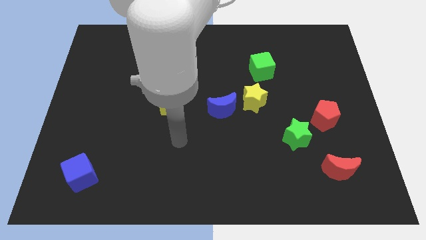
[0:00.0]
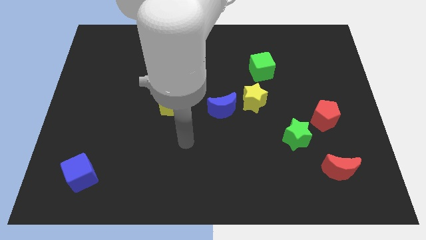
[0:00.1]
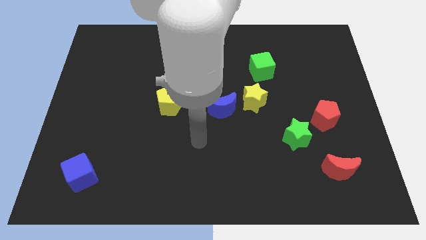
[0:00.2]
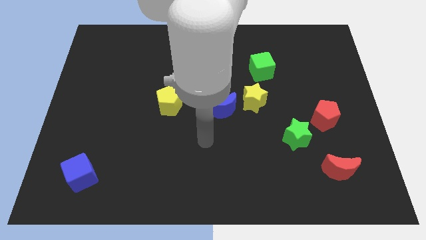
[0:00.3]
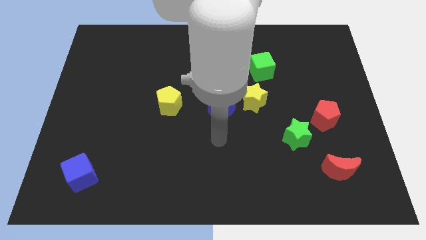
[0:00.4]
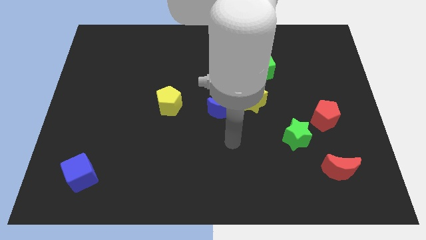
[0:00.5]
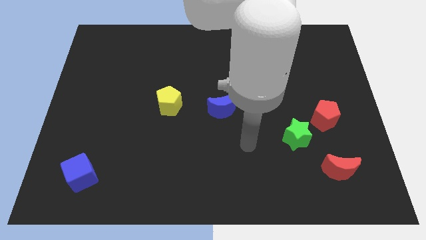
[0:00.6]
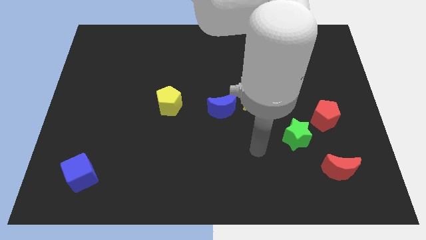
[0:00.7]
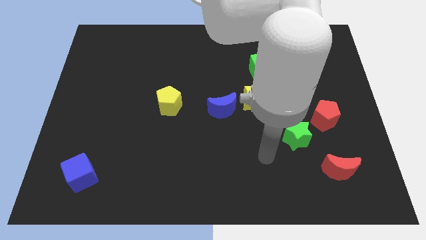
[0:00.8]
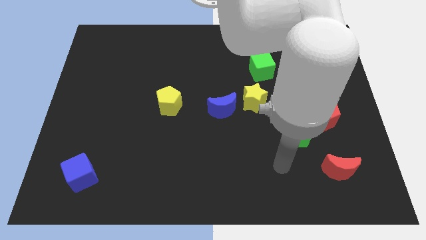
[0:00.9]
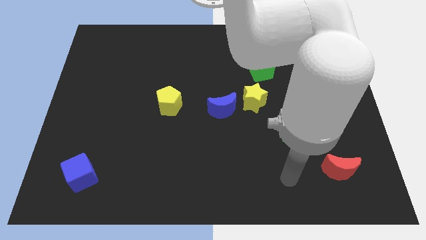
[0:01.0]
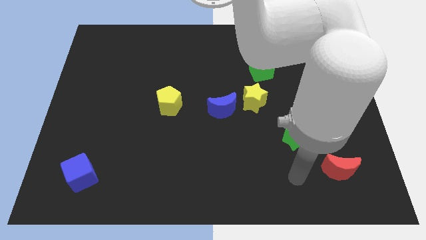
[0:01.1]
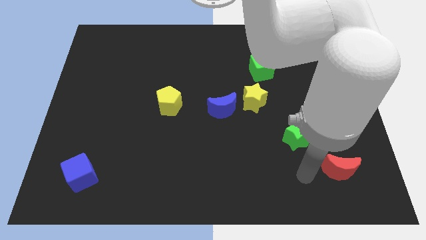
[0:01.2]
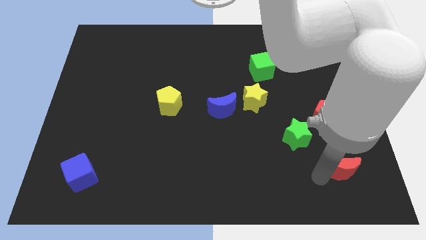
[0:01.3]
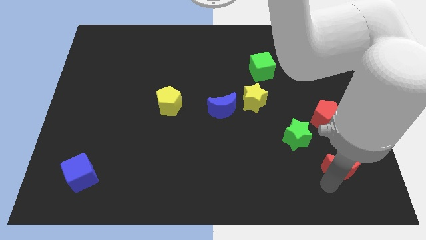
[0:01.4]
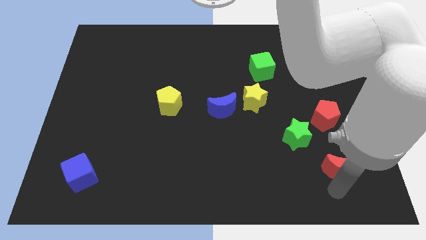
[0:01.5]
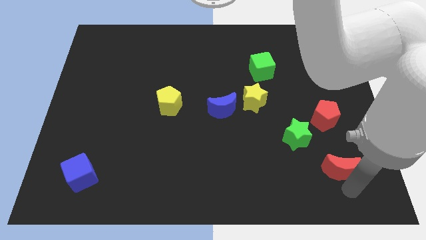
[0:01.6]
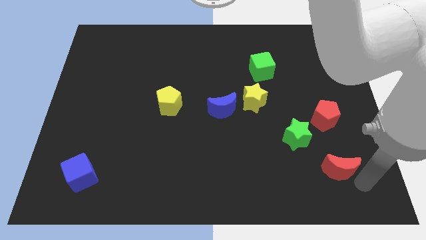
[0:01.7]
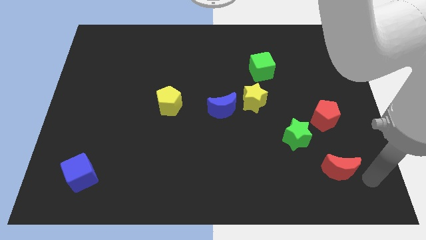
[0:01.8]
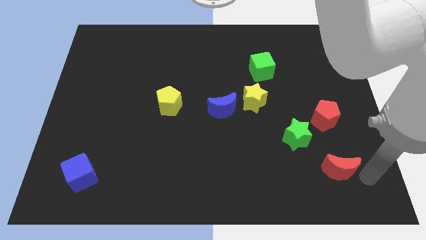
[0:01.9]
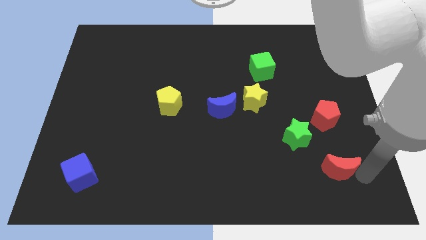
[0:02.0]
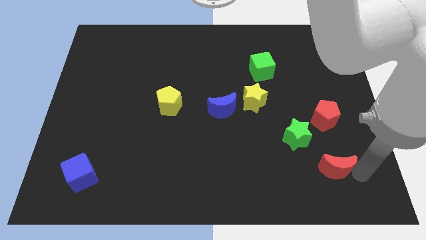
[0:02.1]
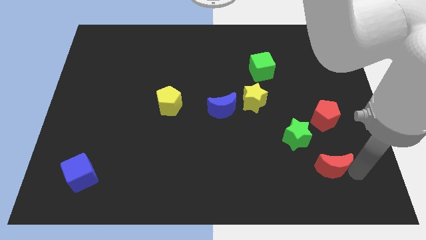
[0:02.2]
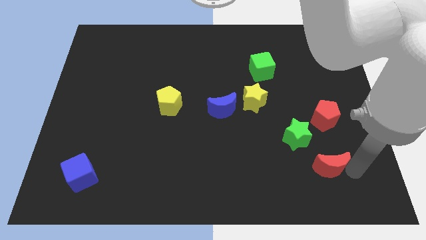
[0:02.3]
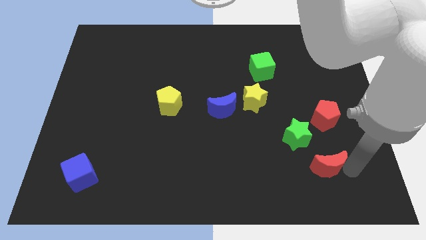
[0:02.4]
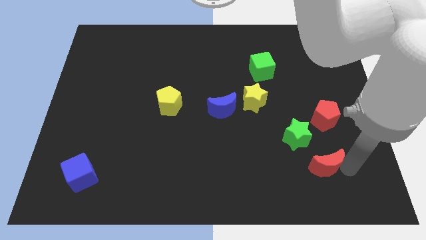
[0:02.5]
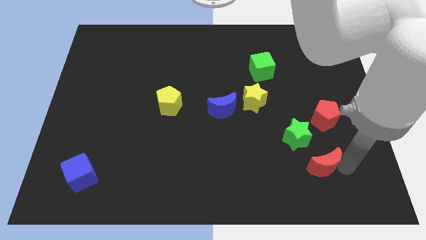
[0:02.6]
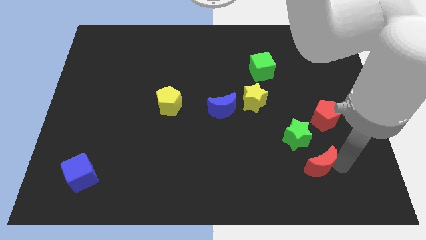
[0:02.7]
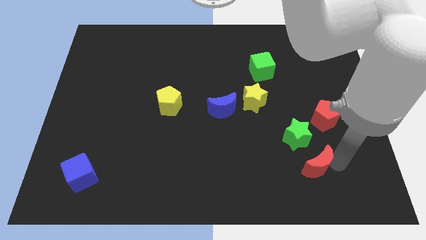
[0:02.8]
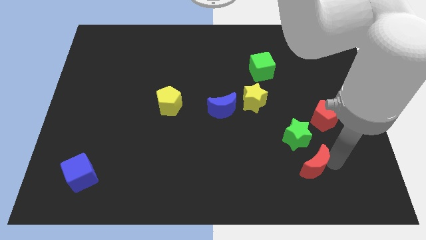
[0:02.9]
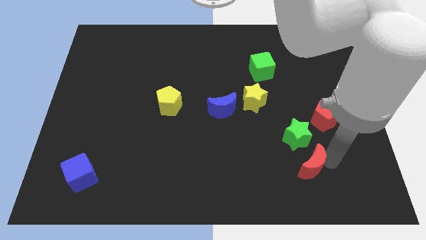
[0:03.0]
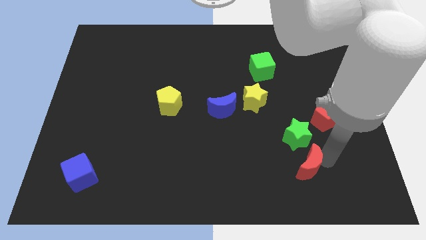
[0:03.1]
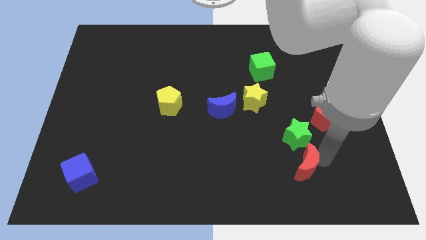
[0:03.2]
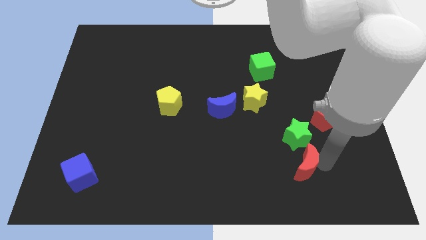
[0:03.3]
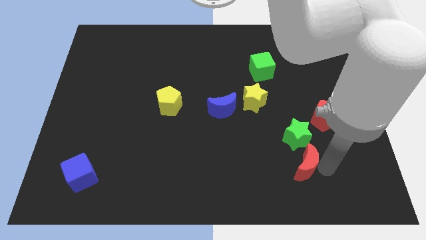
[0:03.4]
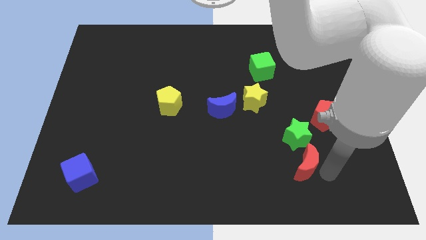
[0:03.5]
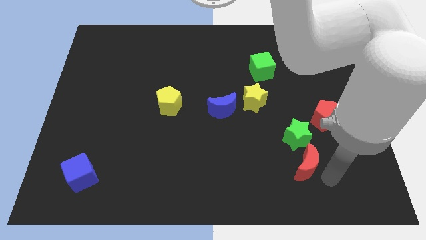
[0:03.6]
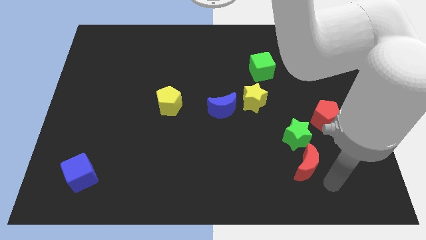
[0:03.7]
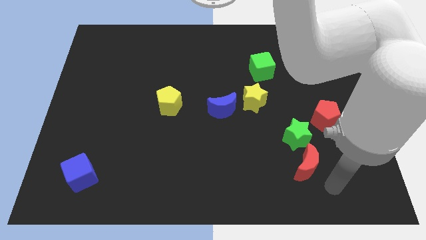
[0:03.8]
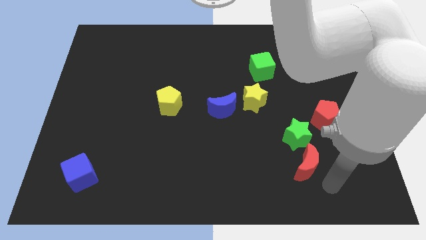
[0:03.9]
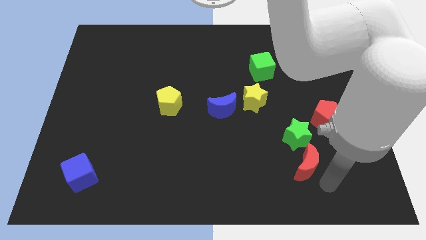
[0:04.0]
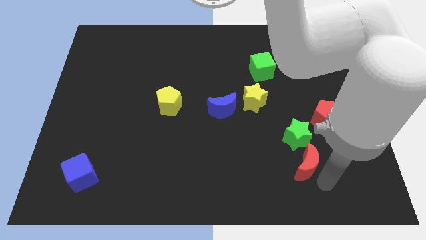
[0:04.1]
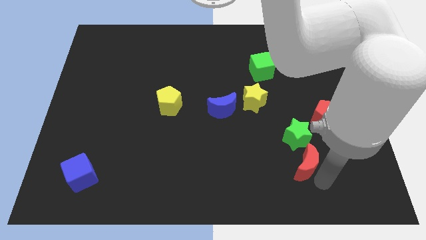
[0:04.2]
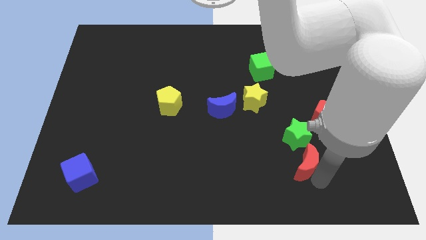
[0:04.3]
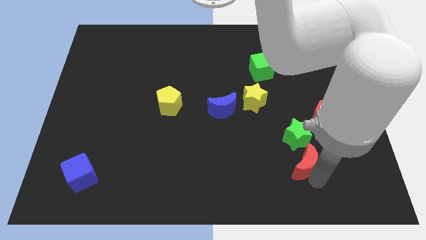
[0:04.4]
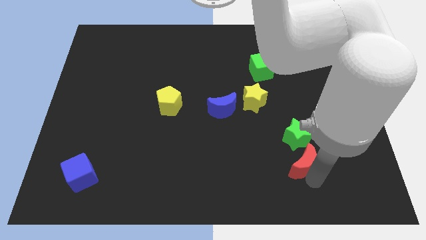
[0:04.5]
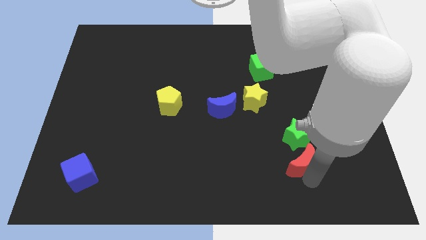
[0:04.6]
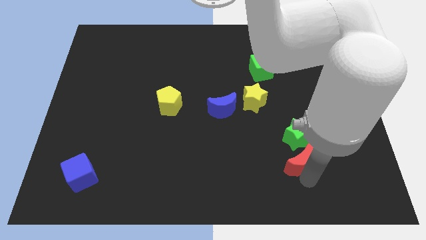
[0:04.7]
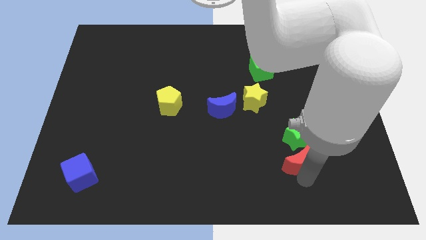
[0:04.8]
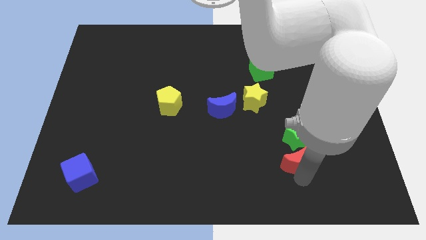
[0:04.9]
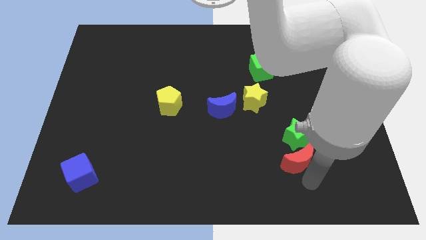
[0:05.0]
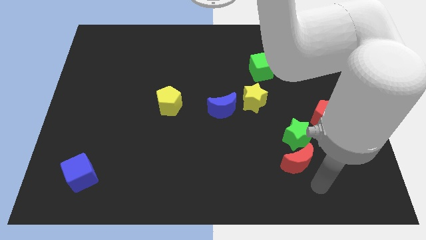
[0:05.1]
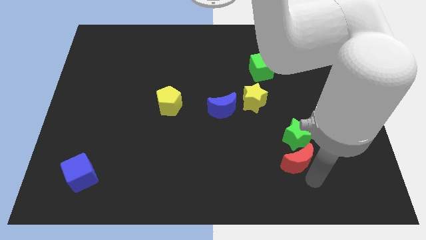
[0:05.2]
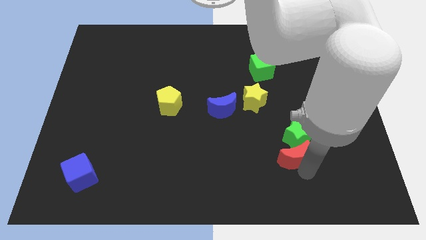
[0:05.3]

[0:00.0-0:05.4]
push the red moon up and then to the left a little bit

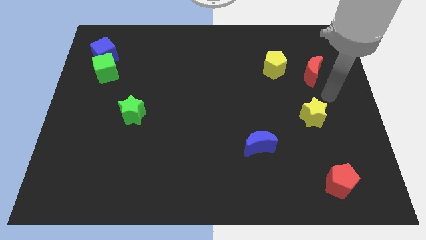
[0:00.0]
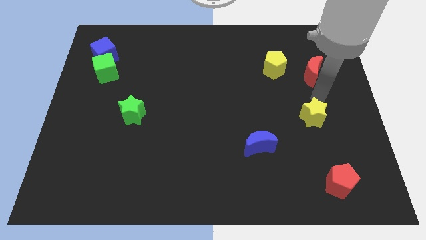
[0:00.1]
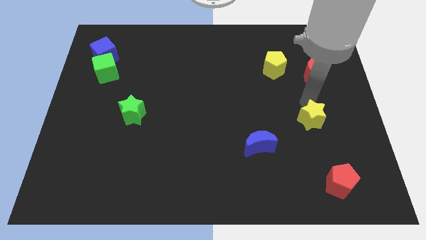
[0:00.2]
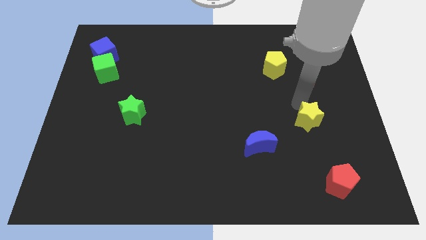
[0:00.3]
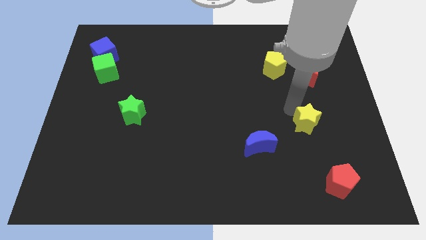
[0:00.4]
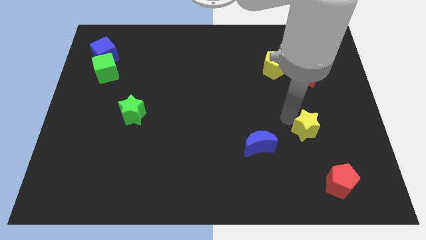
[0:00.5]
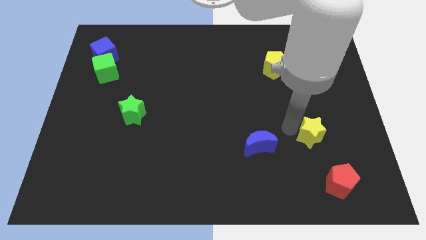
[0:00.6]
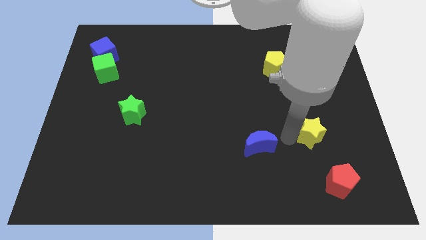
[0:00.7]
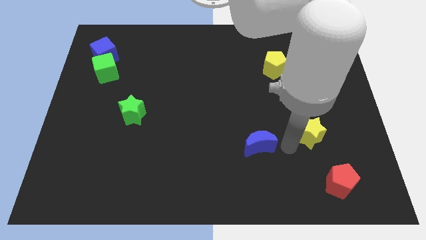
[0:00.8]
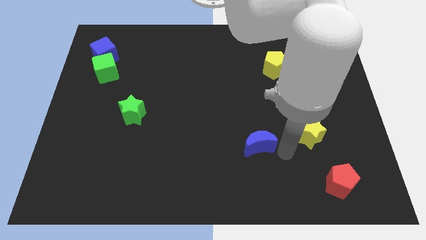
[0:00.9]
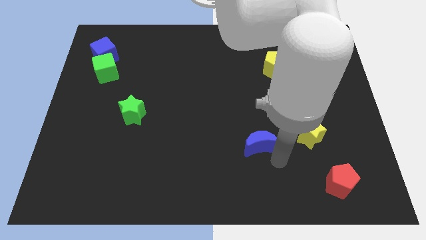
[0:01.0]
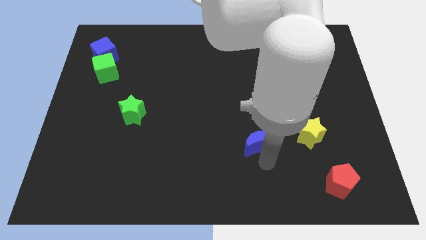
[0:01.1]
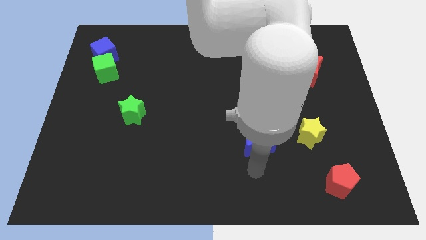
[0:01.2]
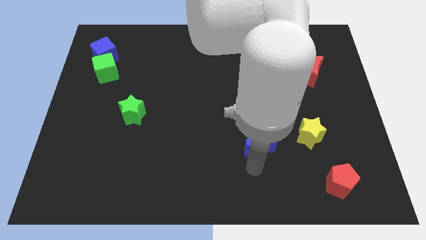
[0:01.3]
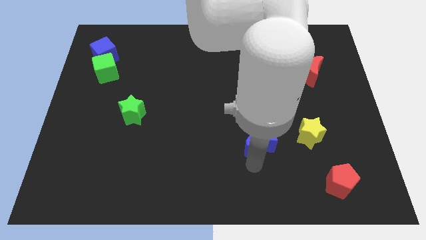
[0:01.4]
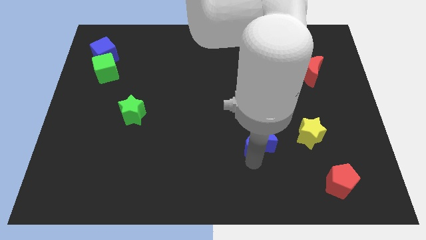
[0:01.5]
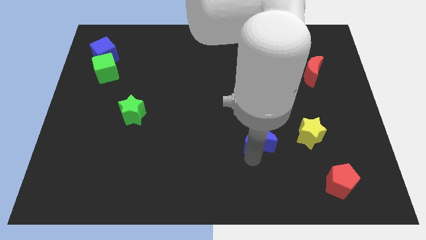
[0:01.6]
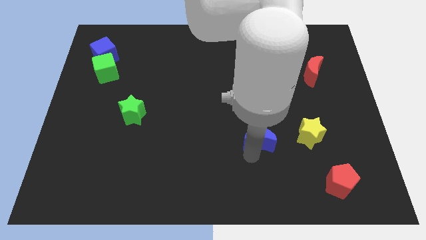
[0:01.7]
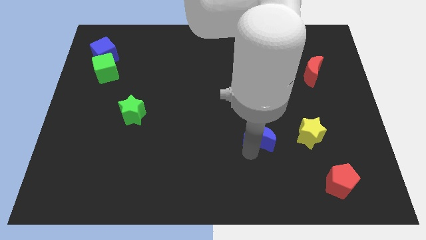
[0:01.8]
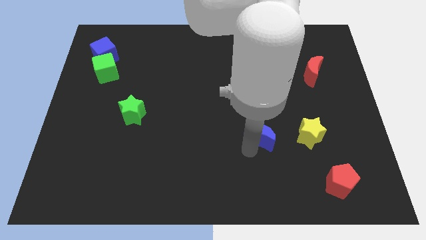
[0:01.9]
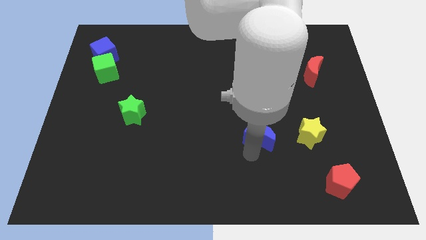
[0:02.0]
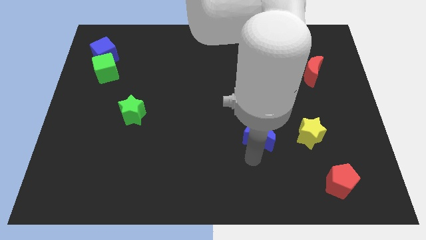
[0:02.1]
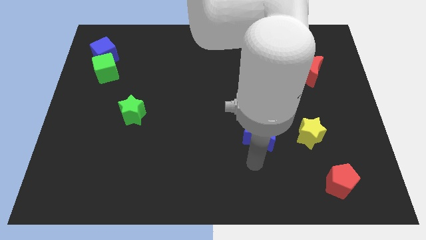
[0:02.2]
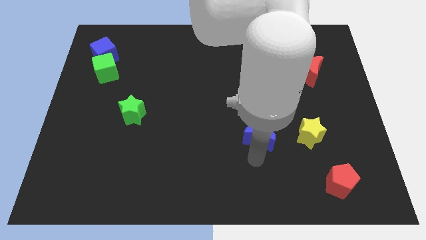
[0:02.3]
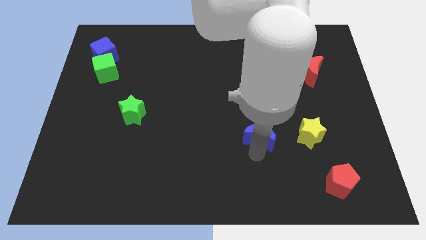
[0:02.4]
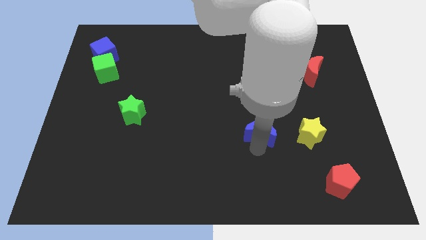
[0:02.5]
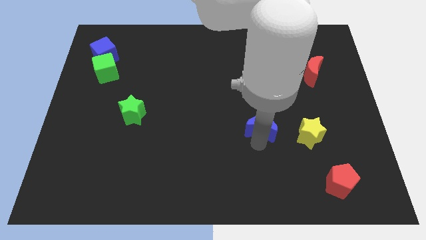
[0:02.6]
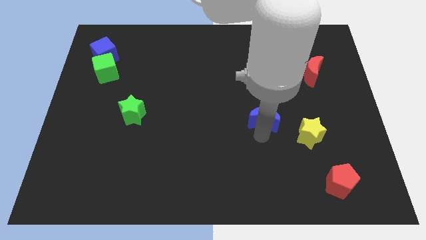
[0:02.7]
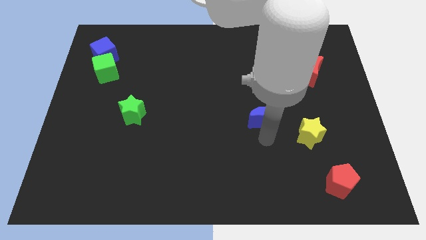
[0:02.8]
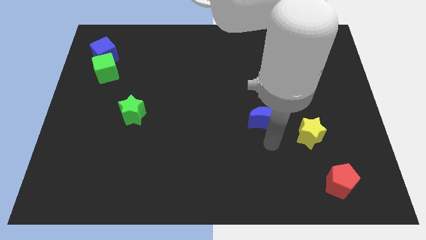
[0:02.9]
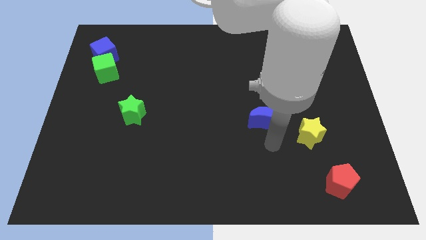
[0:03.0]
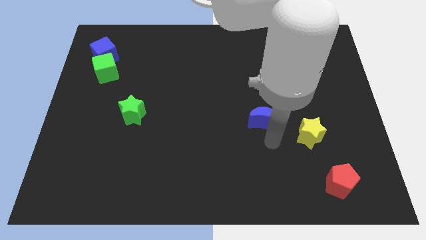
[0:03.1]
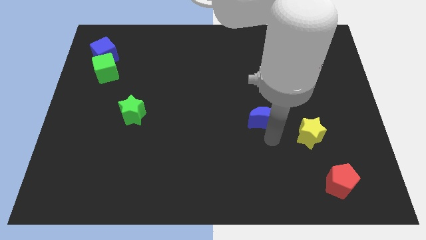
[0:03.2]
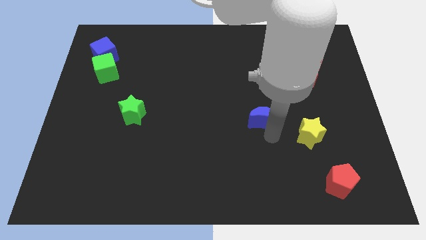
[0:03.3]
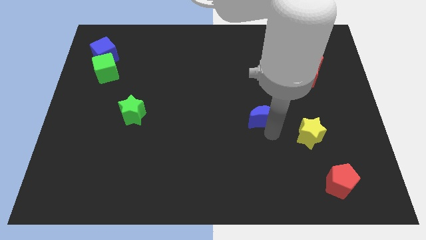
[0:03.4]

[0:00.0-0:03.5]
slightly push the blue moon up
